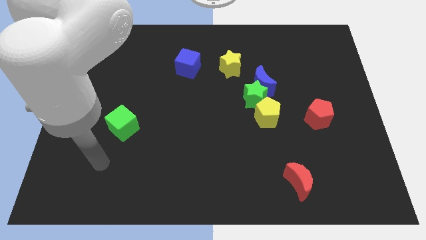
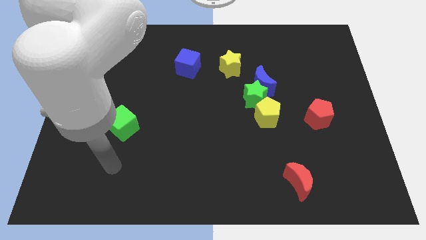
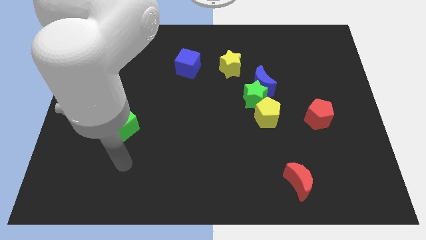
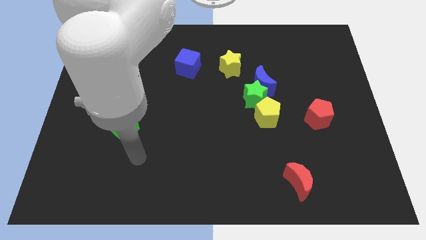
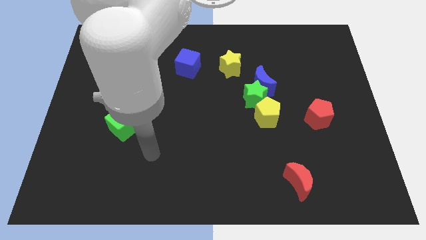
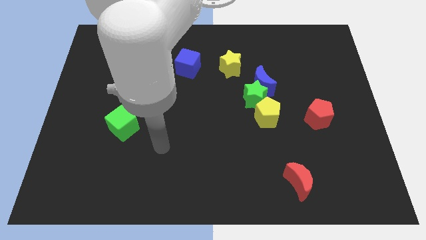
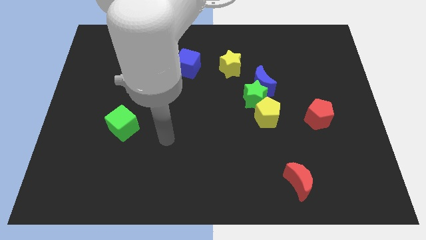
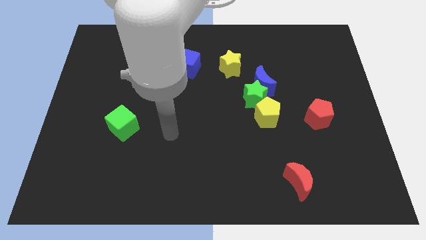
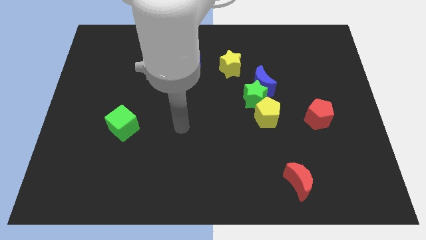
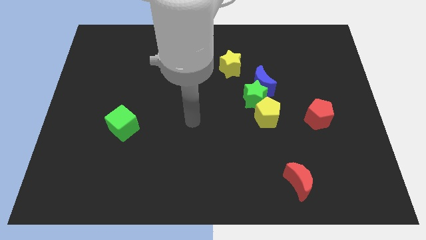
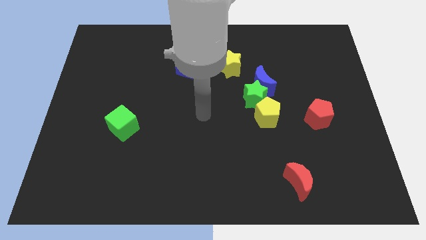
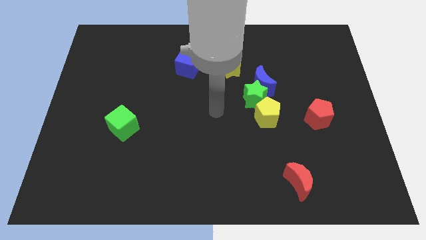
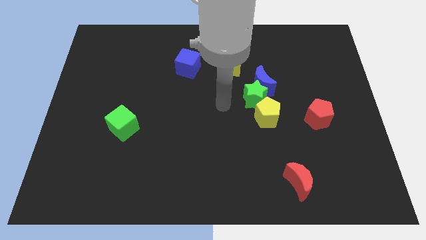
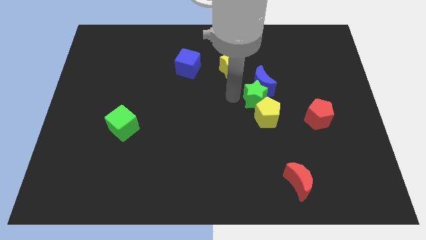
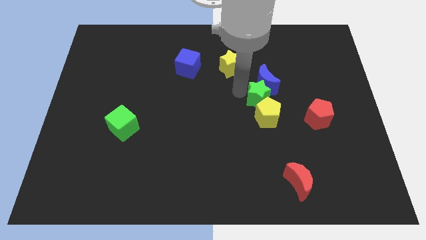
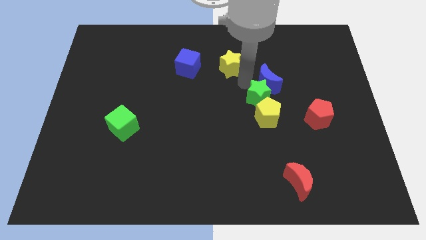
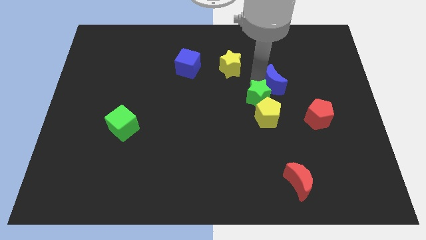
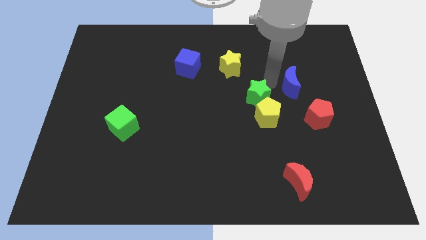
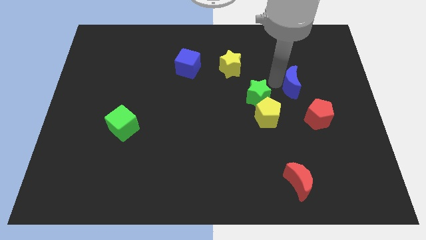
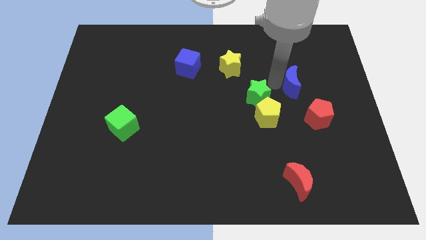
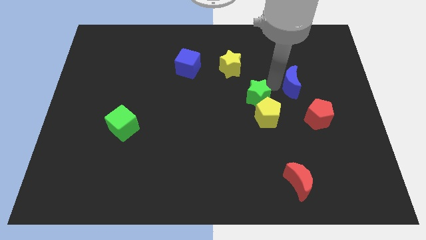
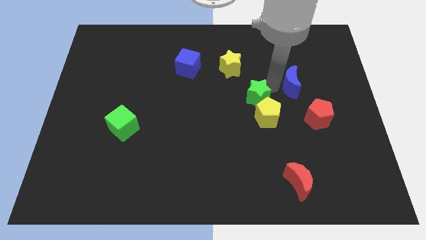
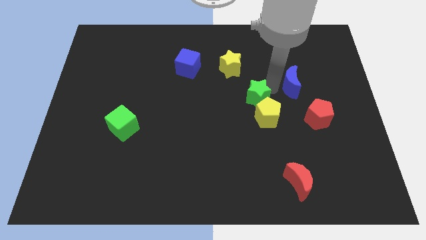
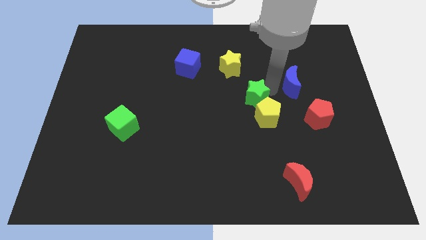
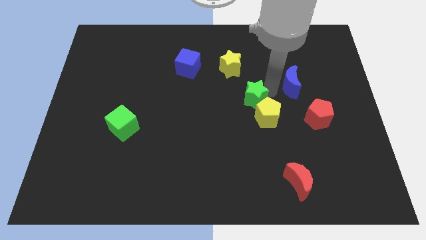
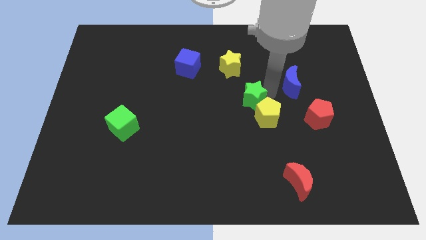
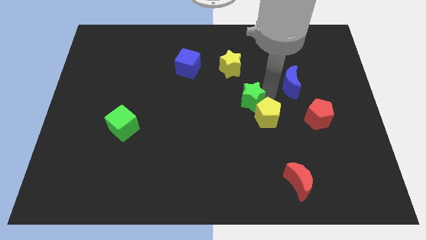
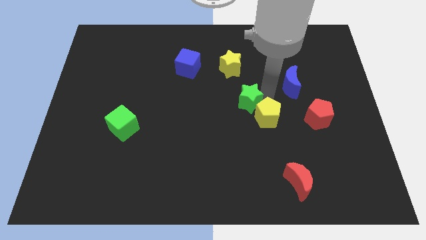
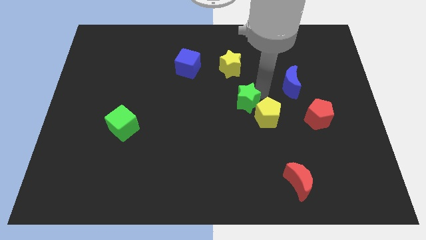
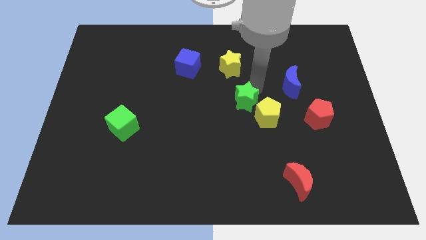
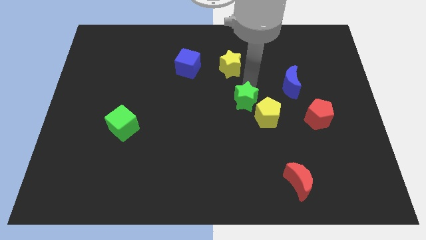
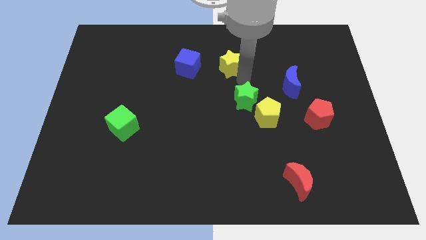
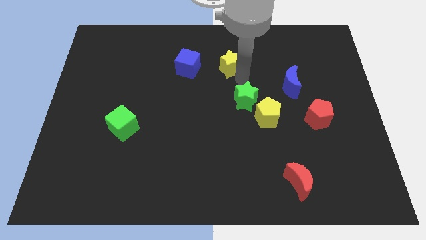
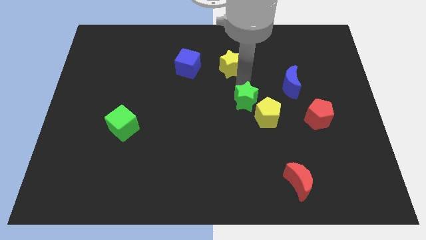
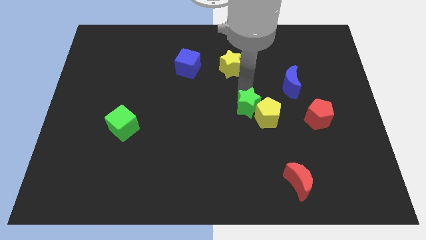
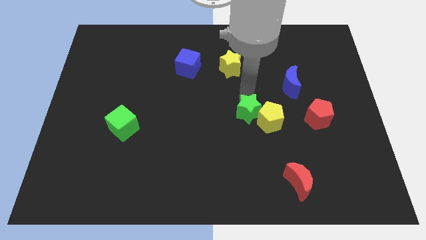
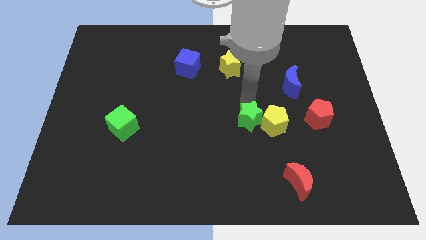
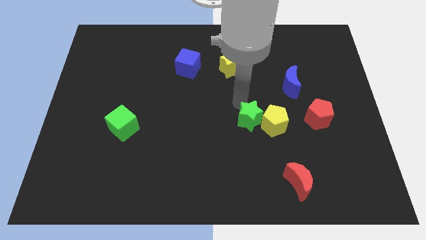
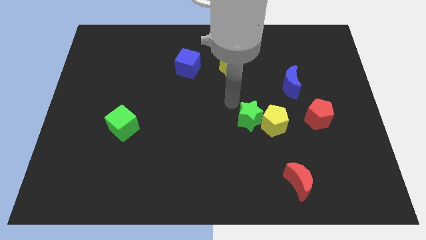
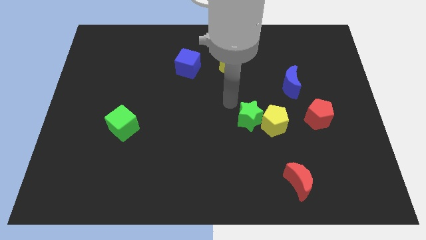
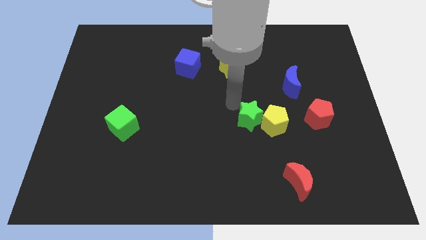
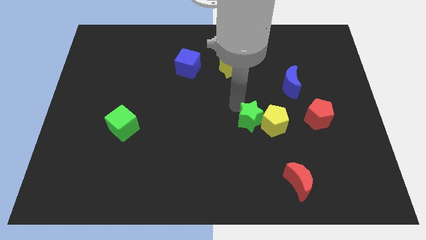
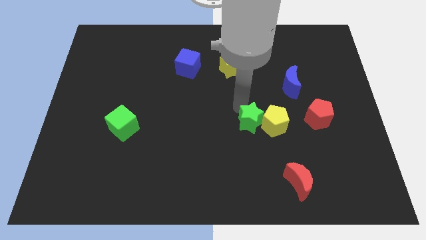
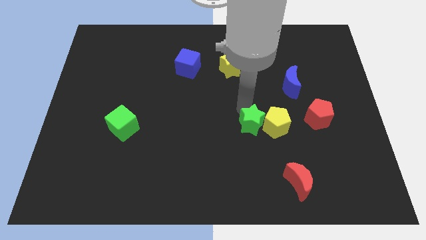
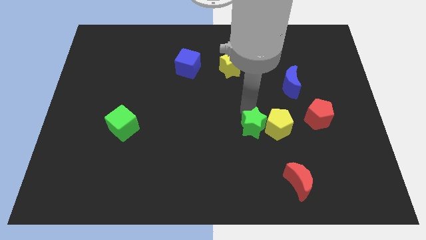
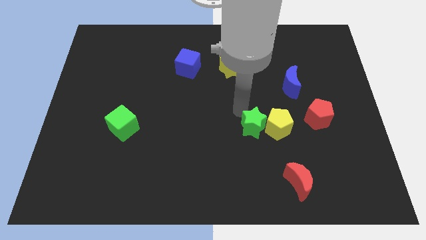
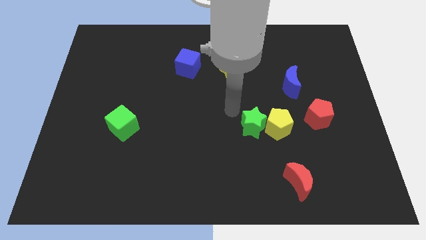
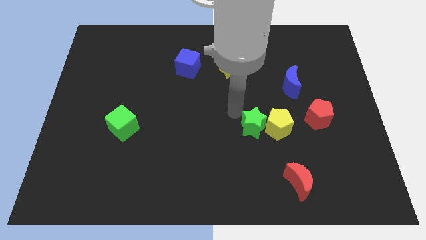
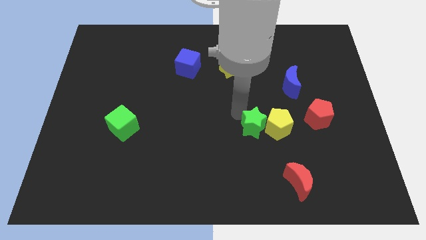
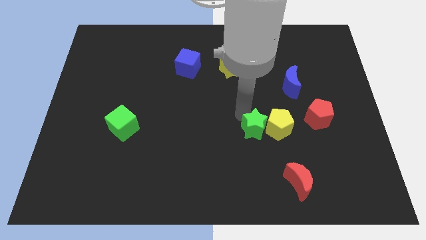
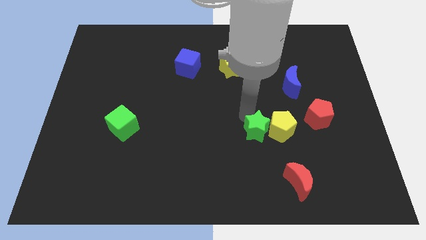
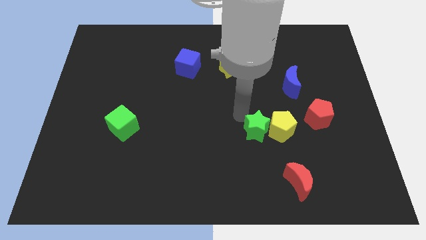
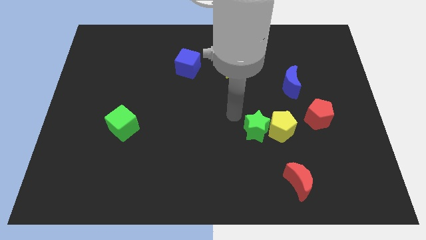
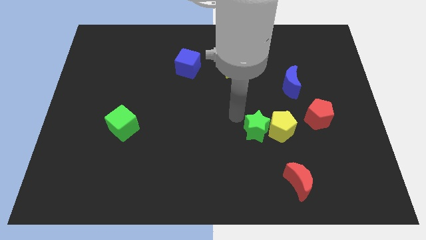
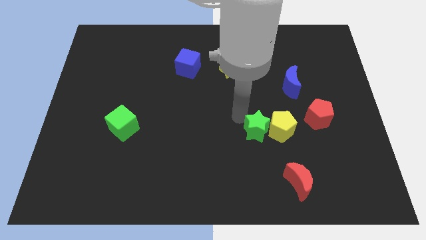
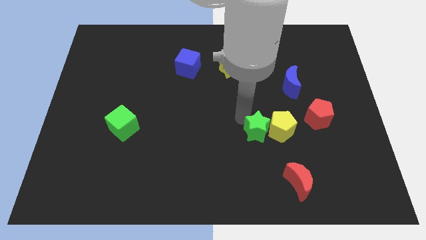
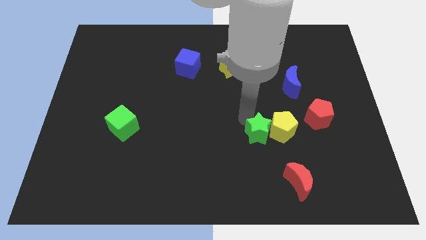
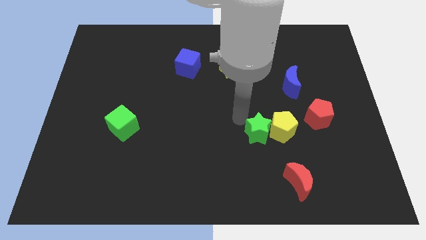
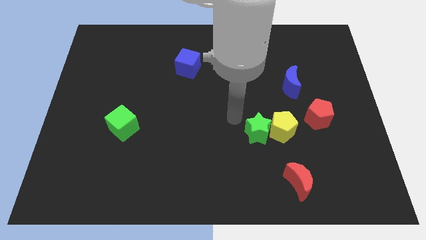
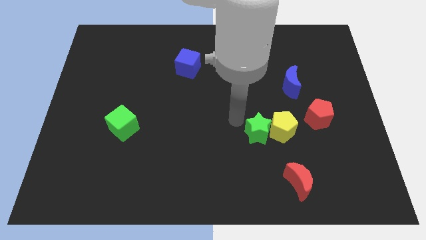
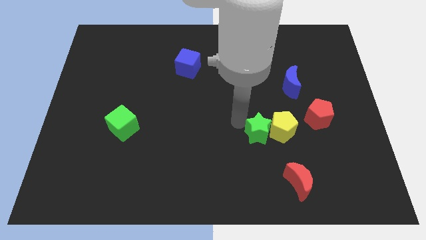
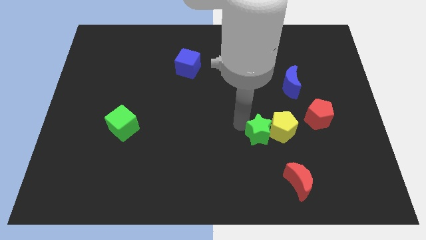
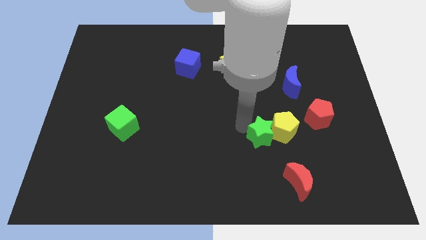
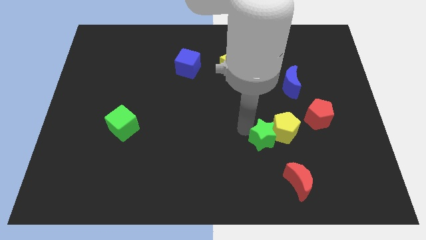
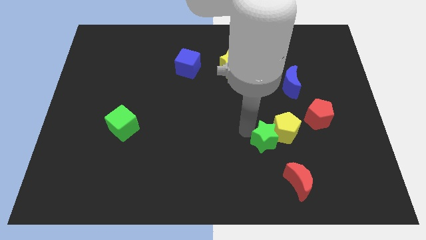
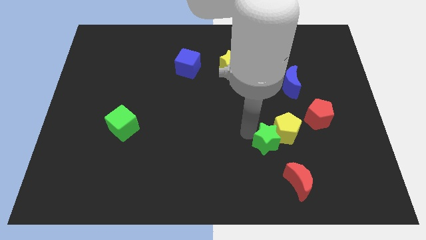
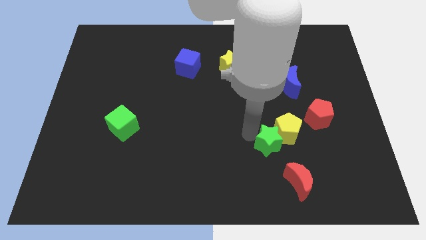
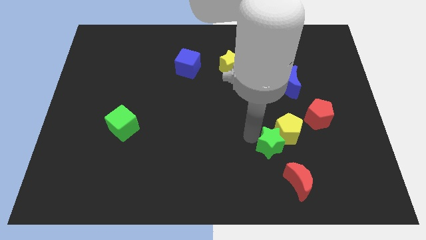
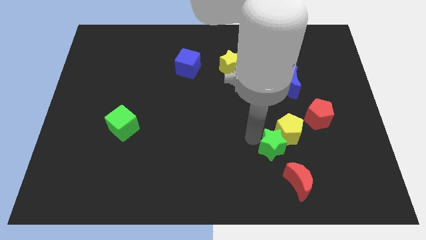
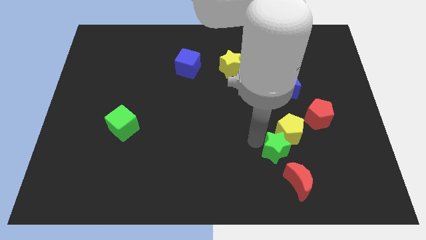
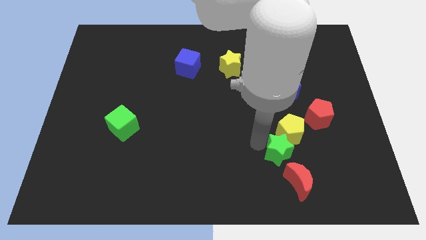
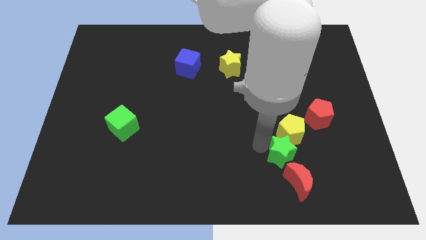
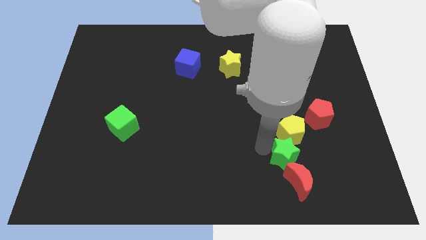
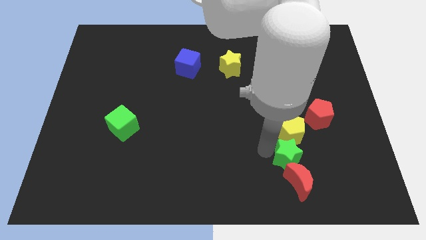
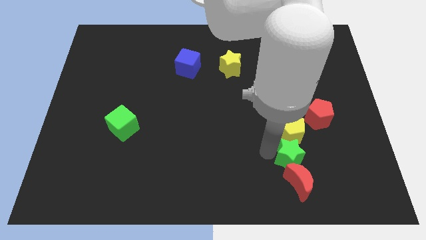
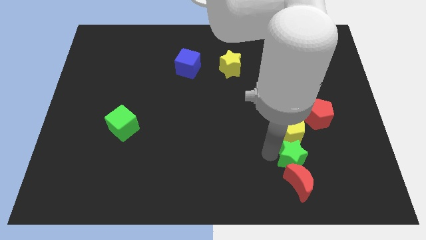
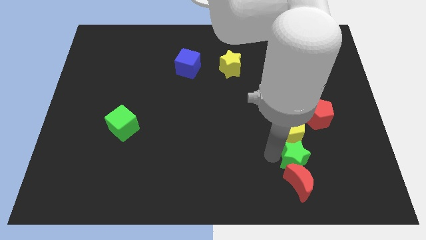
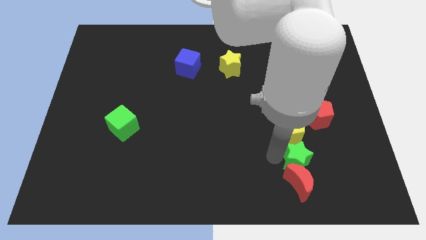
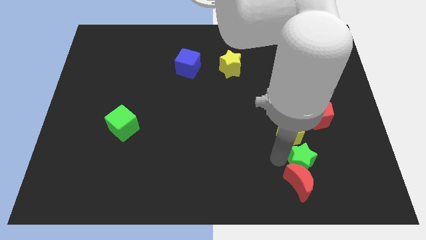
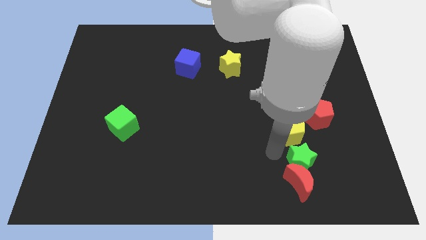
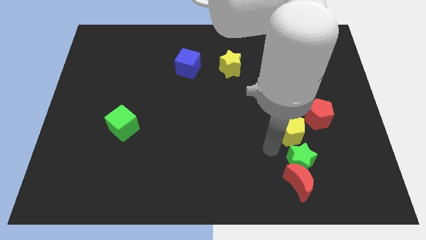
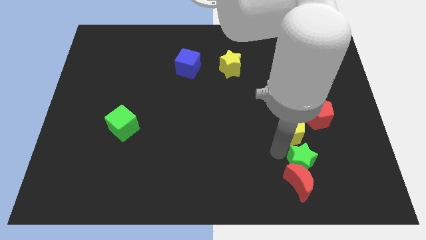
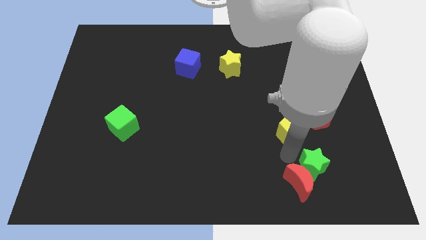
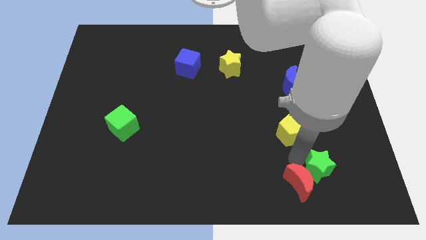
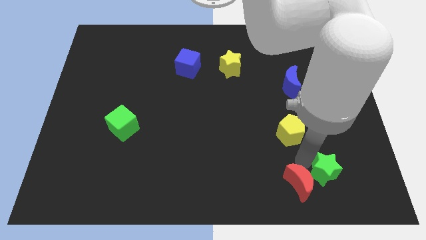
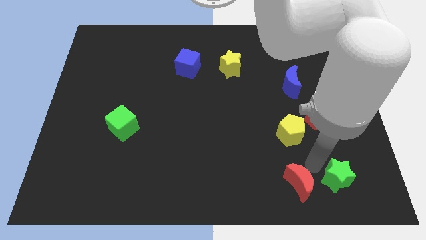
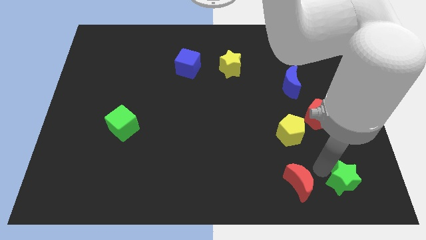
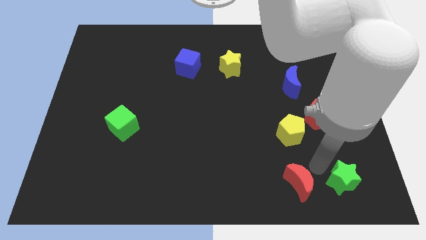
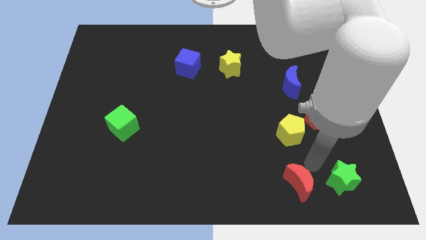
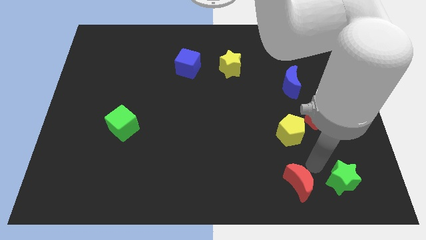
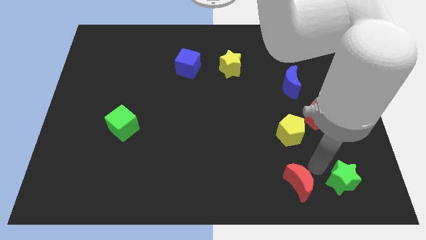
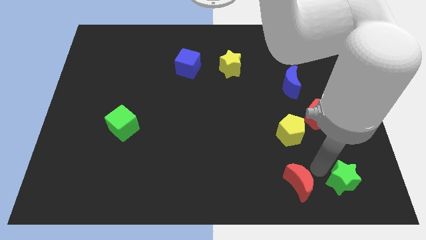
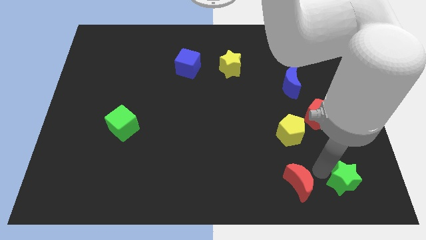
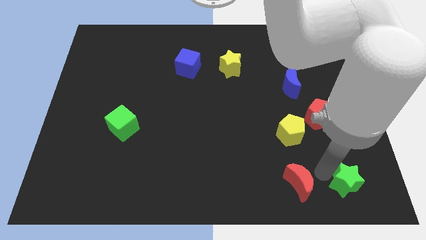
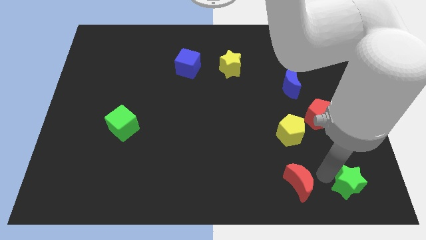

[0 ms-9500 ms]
slide the green star to the bottom right of the board
